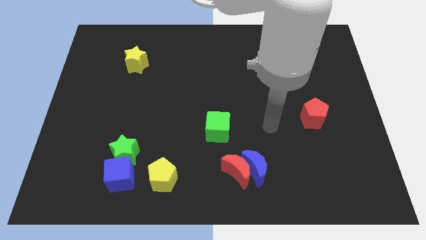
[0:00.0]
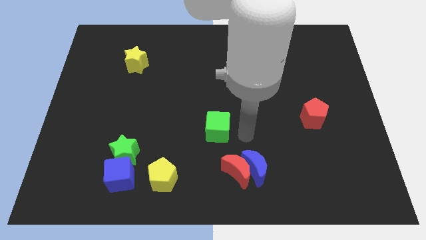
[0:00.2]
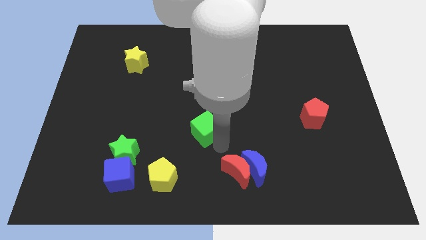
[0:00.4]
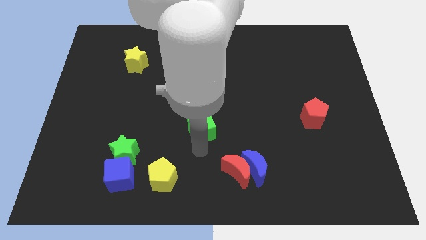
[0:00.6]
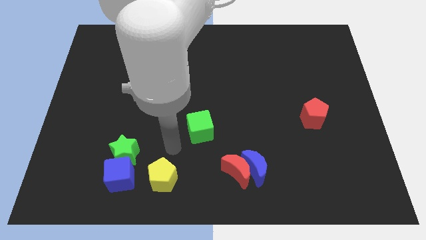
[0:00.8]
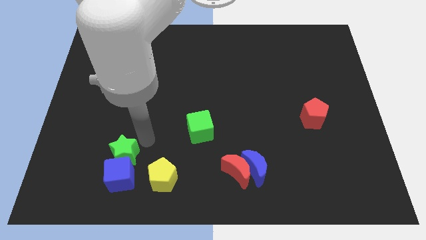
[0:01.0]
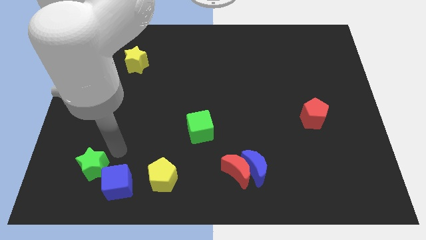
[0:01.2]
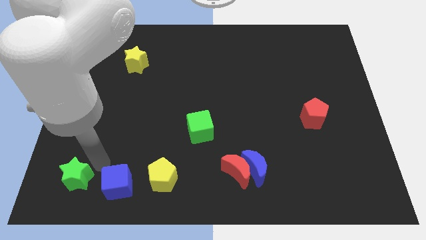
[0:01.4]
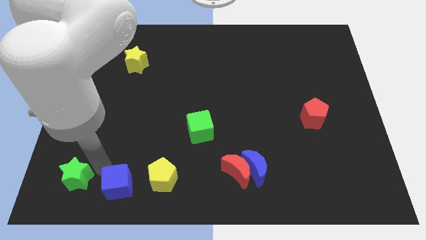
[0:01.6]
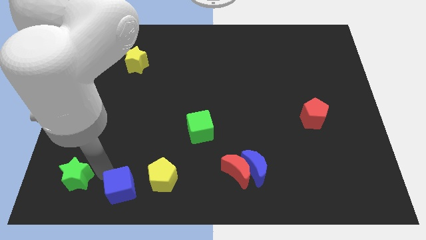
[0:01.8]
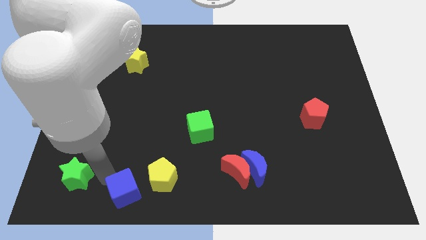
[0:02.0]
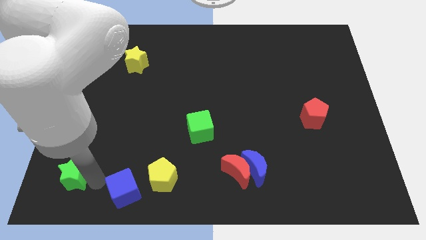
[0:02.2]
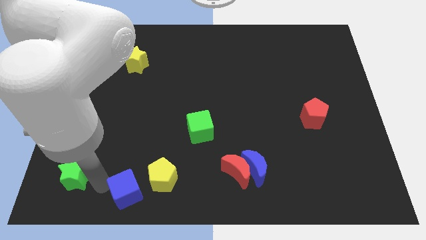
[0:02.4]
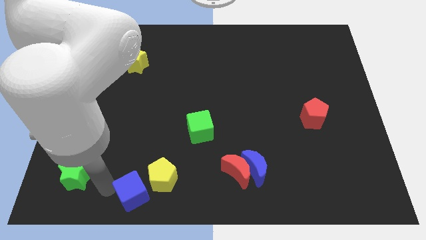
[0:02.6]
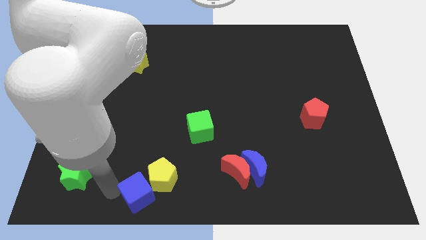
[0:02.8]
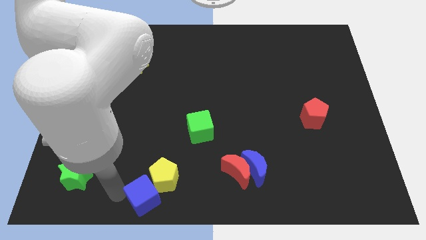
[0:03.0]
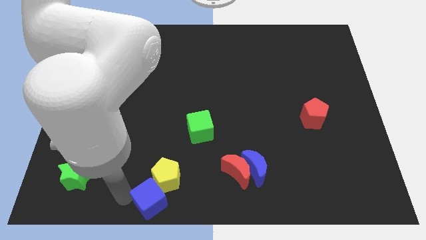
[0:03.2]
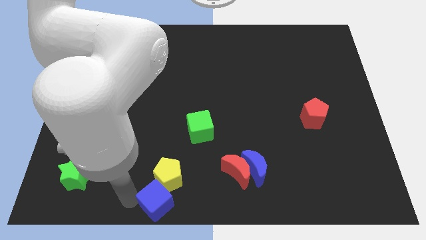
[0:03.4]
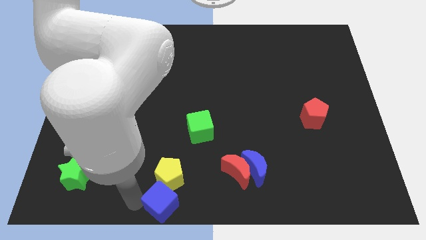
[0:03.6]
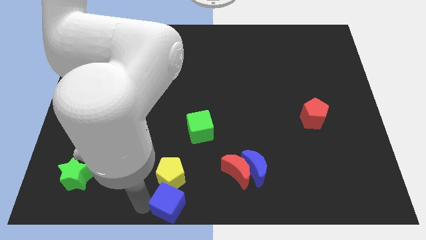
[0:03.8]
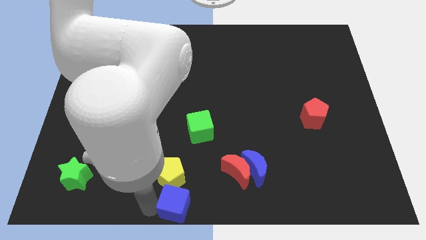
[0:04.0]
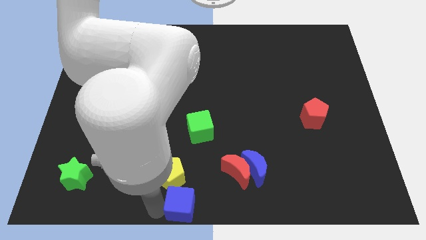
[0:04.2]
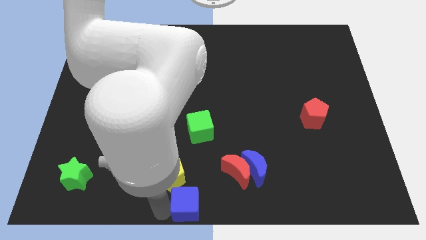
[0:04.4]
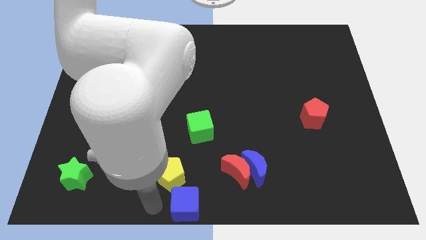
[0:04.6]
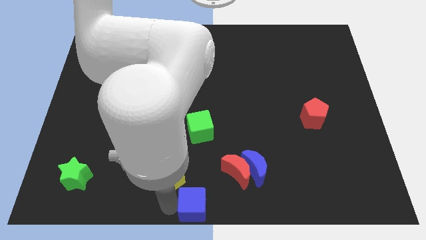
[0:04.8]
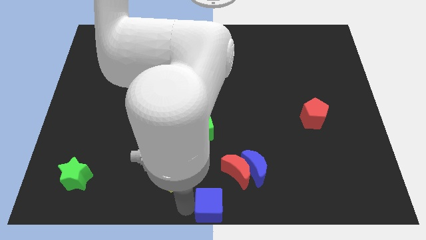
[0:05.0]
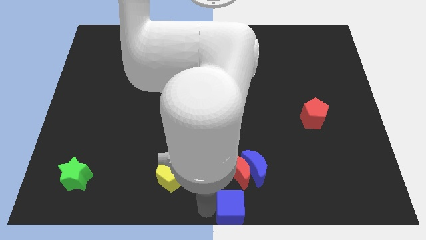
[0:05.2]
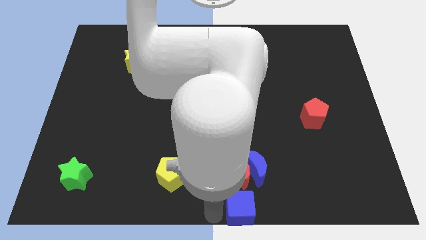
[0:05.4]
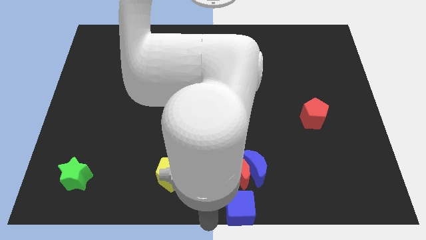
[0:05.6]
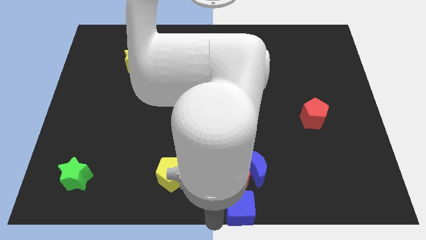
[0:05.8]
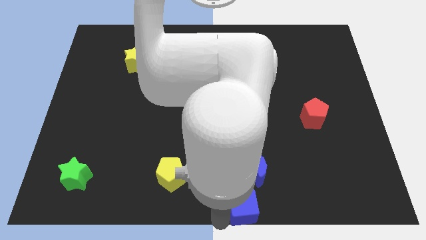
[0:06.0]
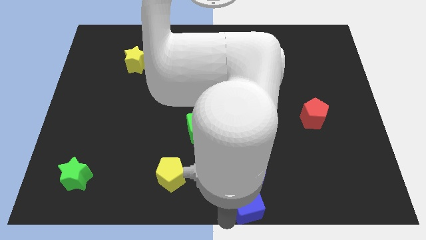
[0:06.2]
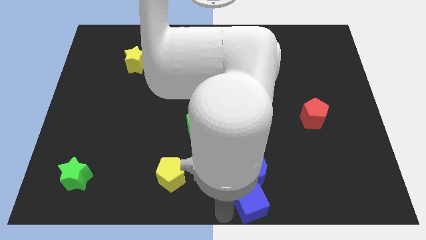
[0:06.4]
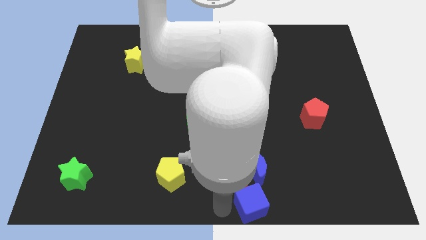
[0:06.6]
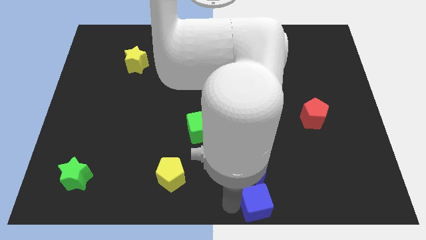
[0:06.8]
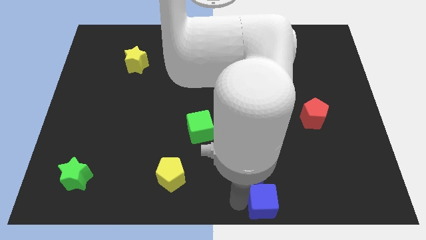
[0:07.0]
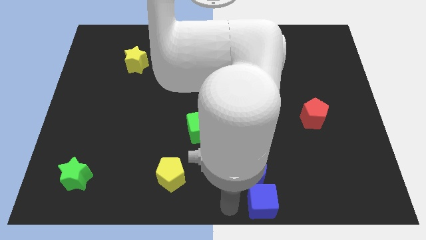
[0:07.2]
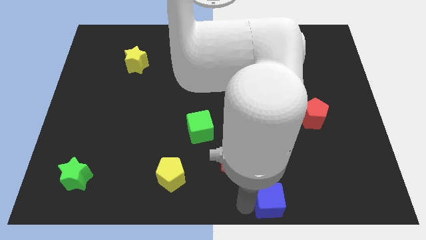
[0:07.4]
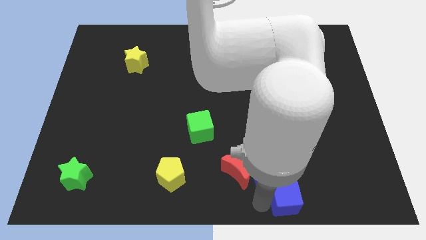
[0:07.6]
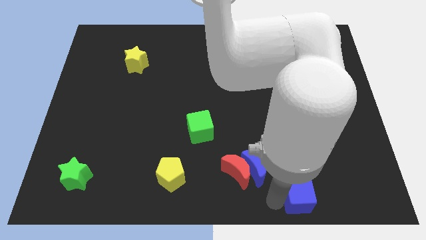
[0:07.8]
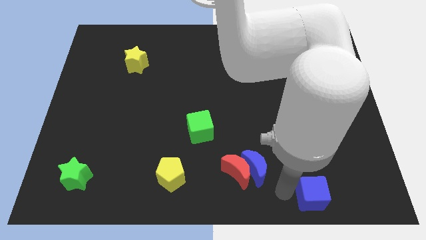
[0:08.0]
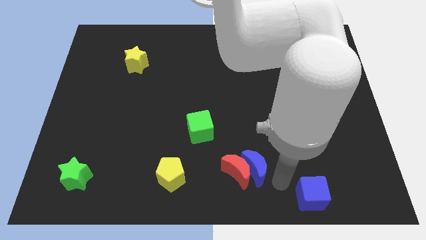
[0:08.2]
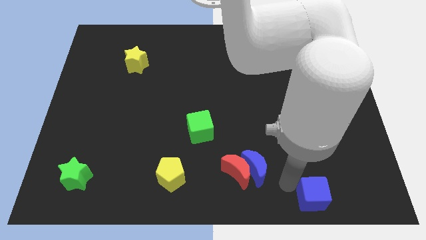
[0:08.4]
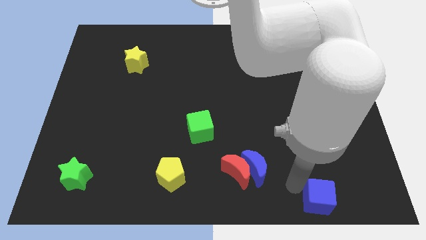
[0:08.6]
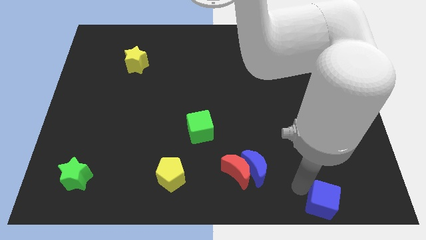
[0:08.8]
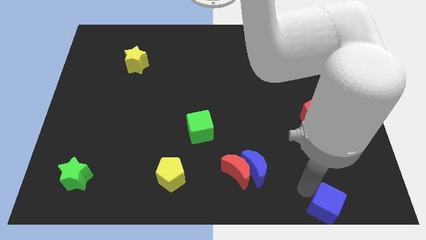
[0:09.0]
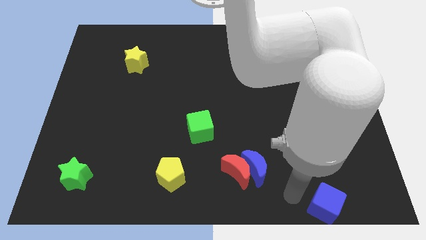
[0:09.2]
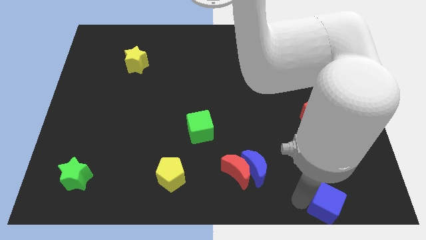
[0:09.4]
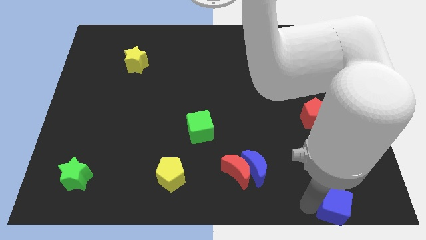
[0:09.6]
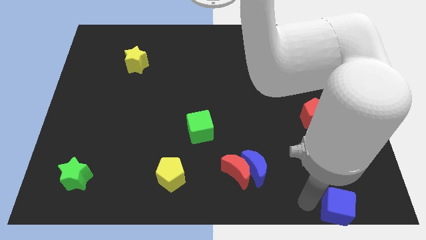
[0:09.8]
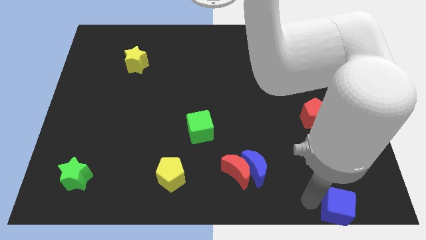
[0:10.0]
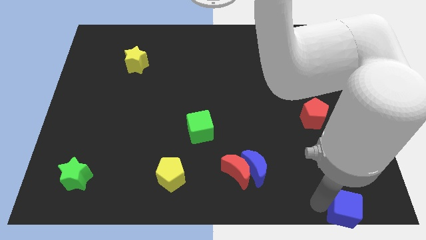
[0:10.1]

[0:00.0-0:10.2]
slide the blue cube to the bottom right corner

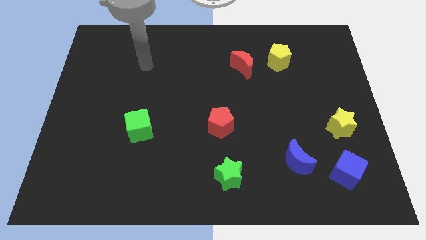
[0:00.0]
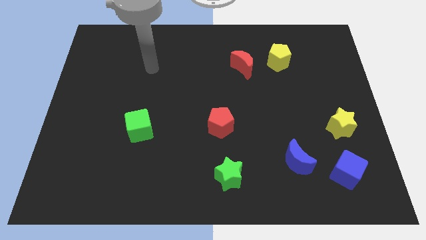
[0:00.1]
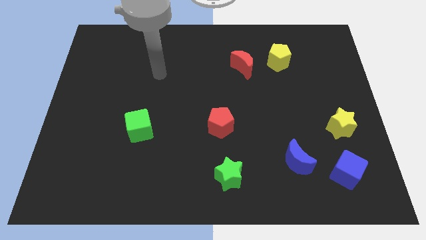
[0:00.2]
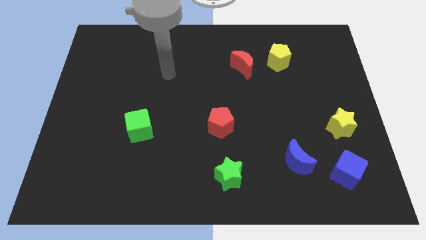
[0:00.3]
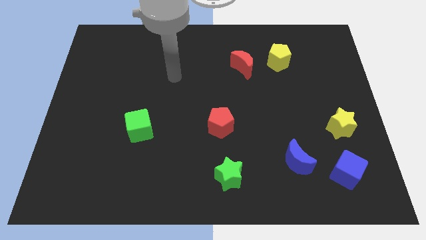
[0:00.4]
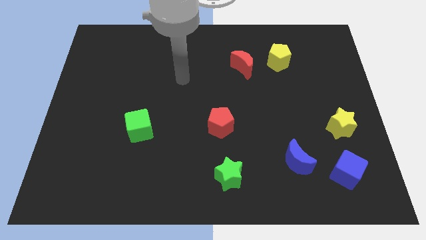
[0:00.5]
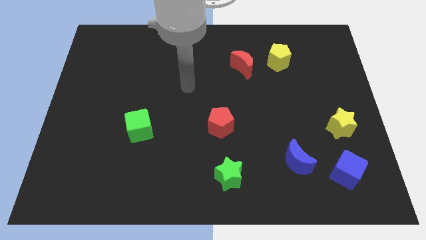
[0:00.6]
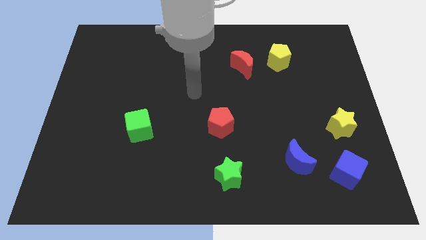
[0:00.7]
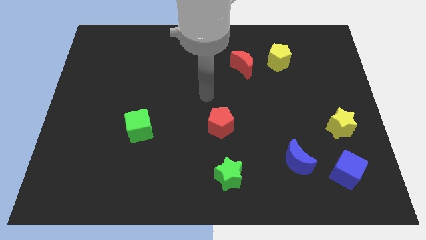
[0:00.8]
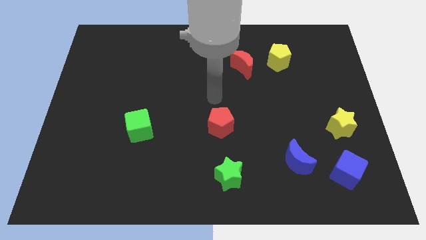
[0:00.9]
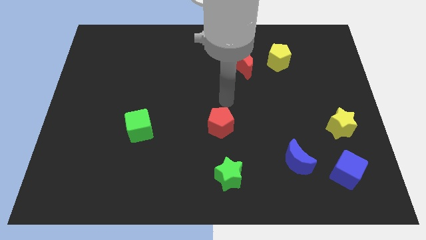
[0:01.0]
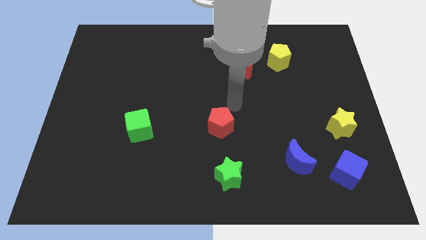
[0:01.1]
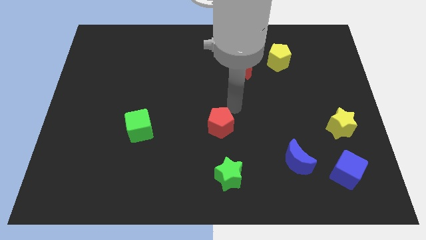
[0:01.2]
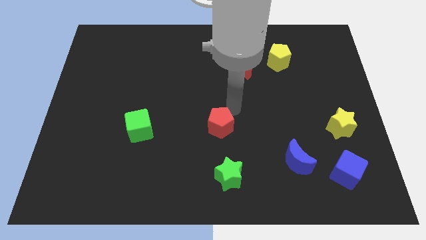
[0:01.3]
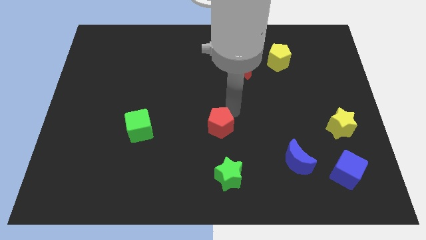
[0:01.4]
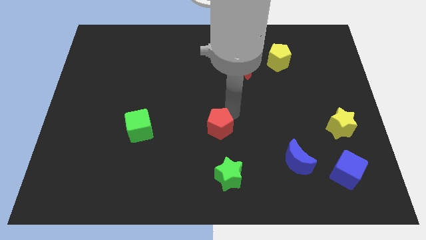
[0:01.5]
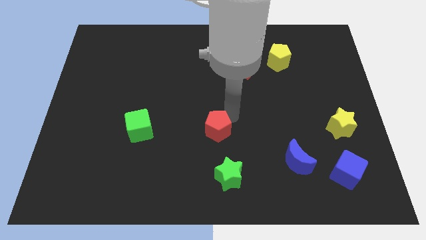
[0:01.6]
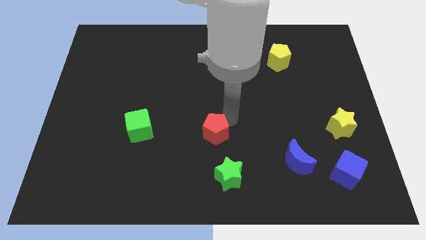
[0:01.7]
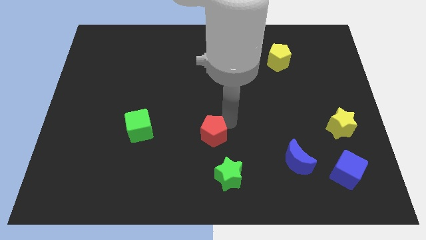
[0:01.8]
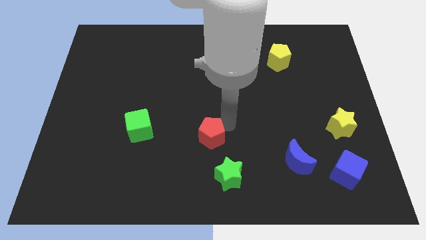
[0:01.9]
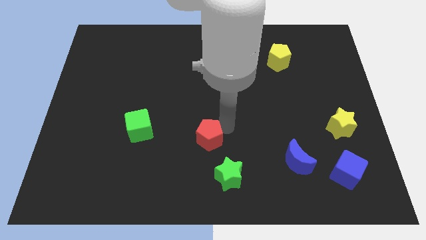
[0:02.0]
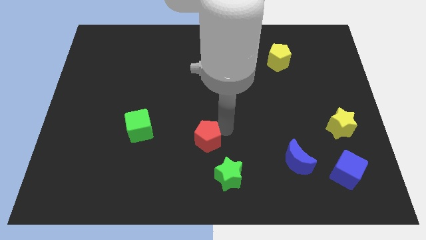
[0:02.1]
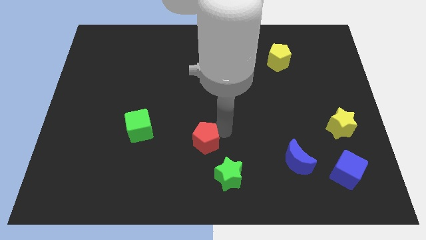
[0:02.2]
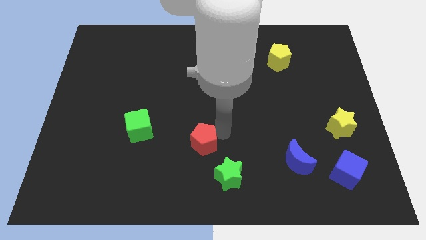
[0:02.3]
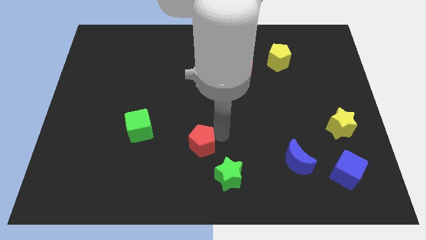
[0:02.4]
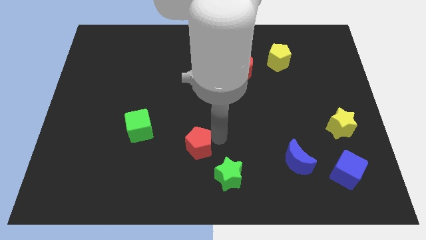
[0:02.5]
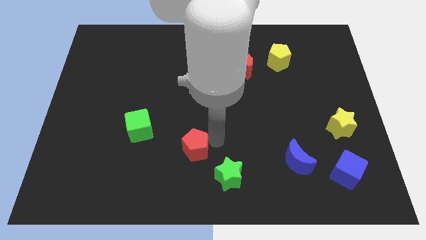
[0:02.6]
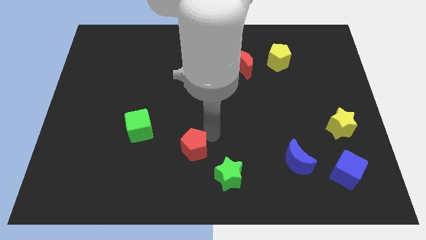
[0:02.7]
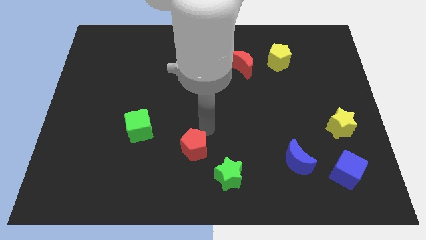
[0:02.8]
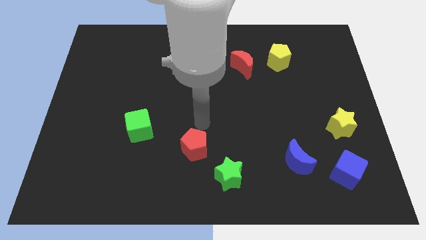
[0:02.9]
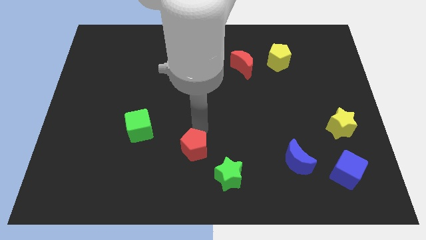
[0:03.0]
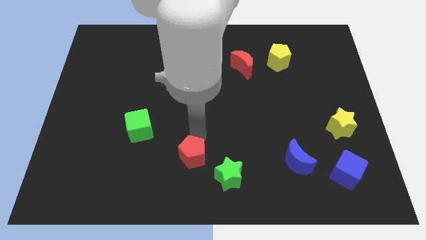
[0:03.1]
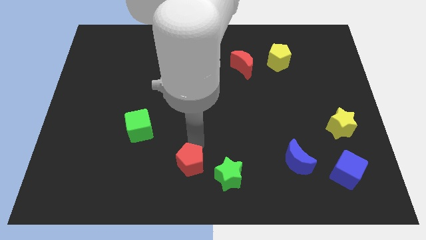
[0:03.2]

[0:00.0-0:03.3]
move the red pentagon to the bottom side
